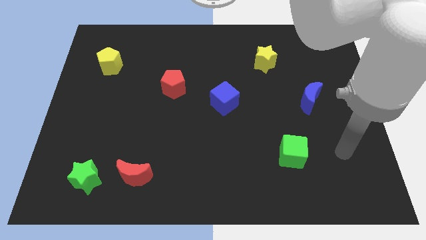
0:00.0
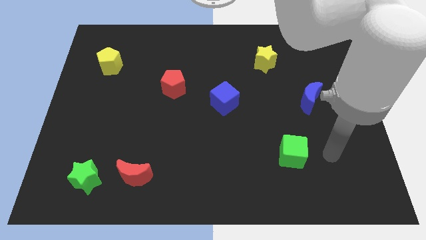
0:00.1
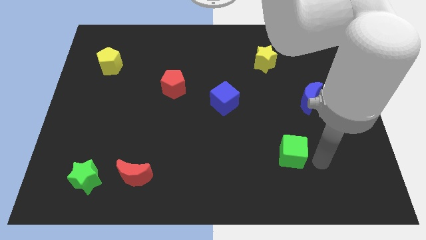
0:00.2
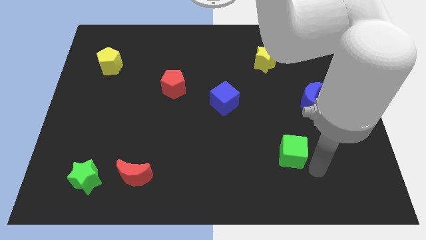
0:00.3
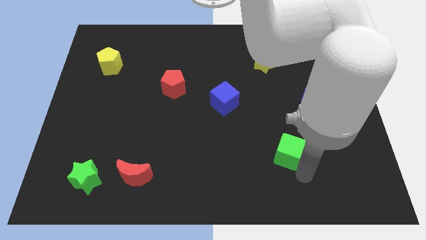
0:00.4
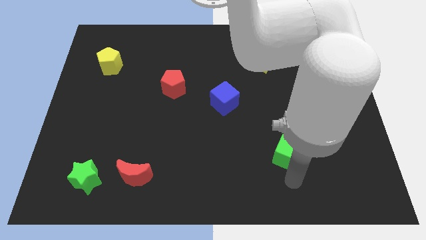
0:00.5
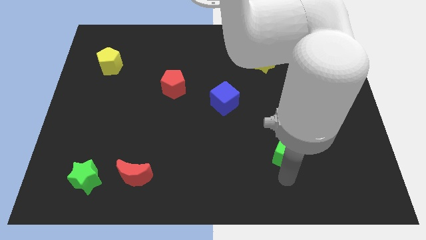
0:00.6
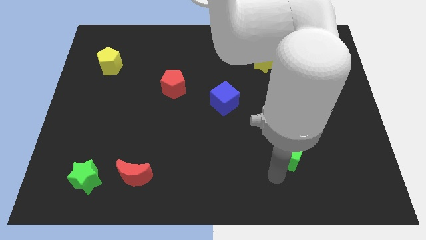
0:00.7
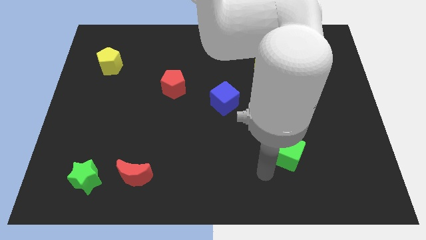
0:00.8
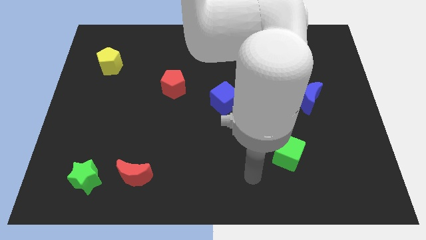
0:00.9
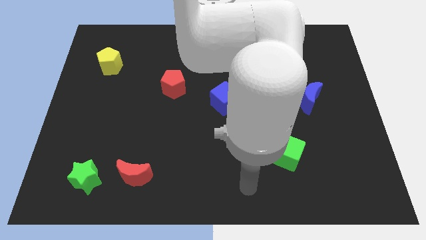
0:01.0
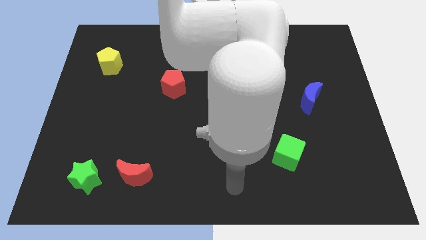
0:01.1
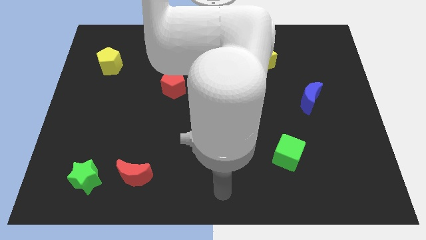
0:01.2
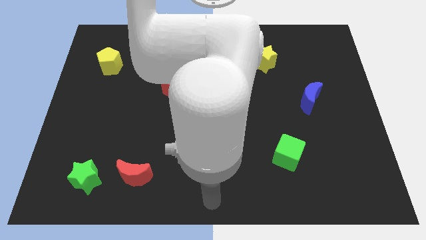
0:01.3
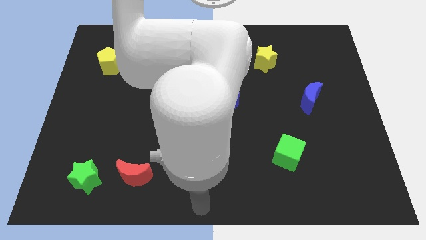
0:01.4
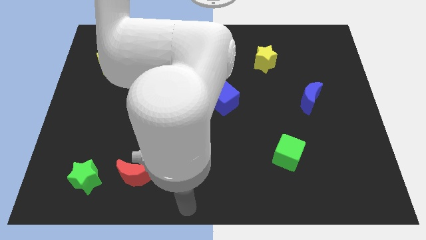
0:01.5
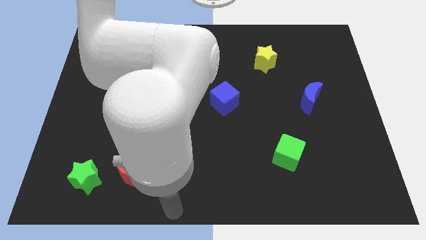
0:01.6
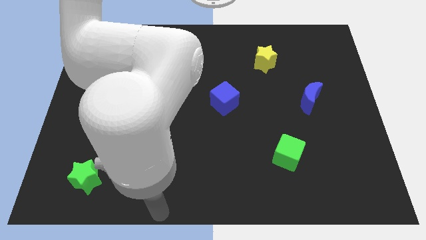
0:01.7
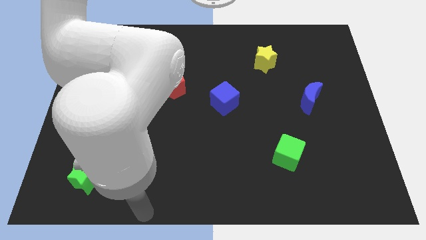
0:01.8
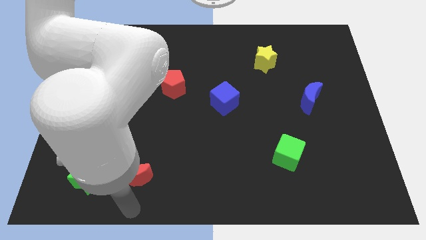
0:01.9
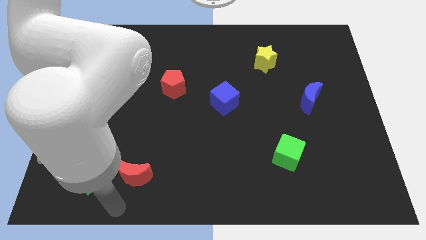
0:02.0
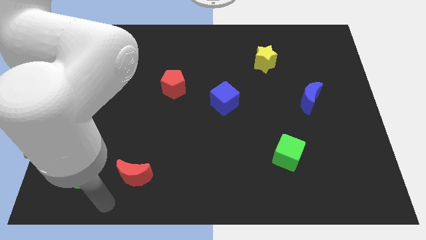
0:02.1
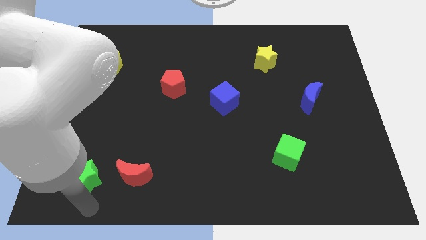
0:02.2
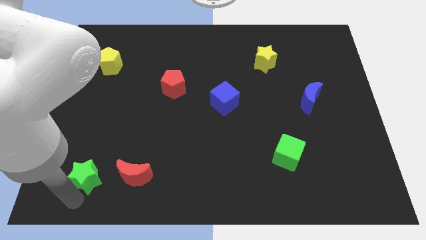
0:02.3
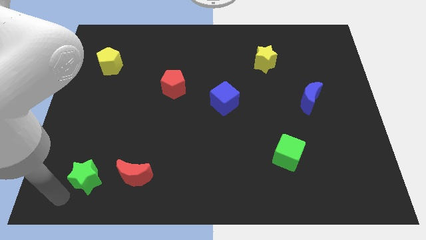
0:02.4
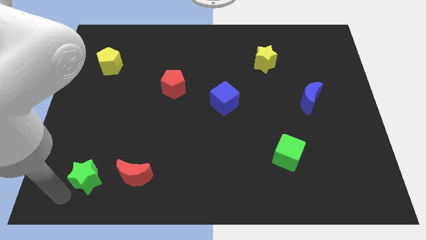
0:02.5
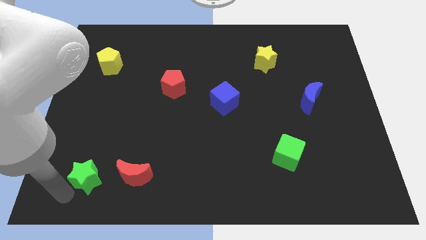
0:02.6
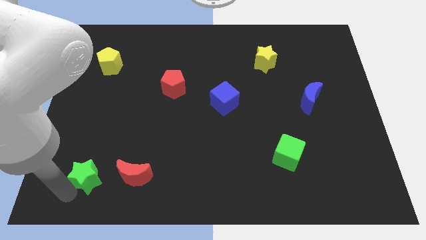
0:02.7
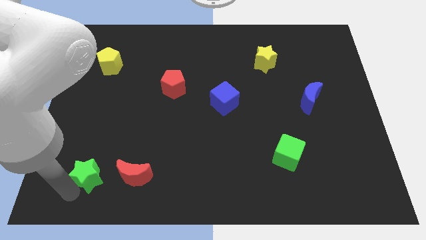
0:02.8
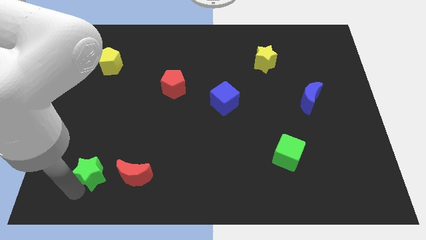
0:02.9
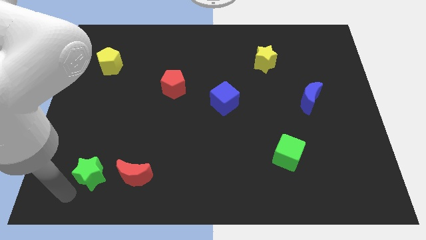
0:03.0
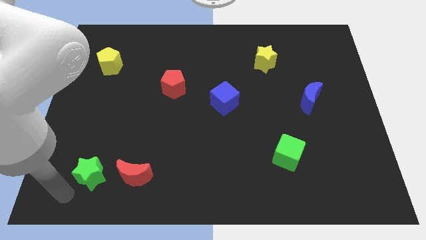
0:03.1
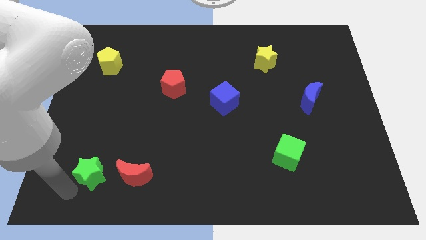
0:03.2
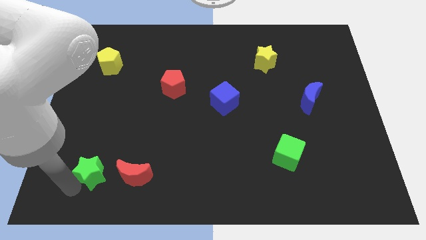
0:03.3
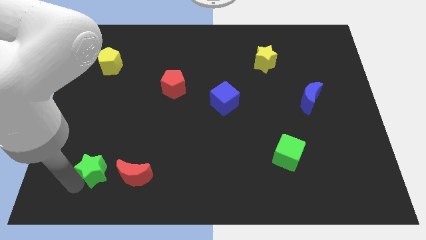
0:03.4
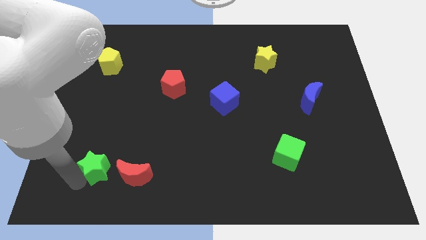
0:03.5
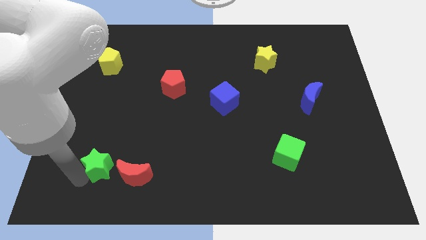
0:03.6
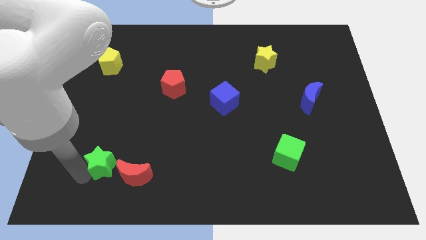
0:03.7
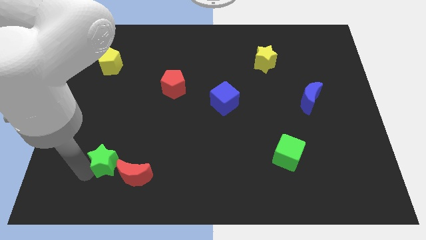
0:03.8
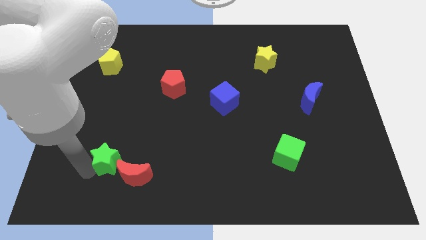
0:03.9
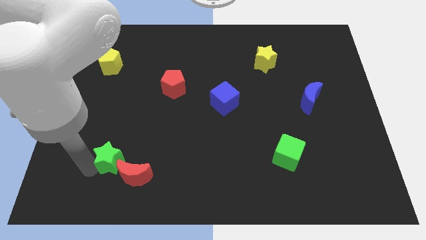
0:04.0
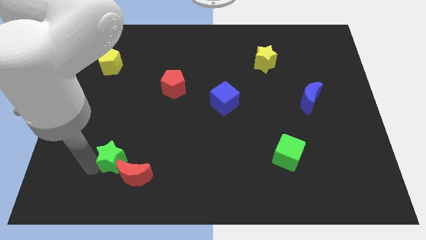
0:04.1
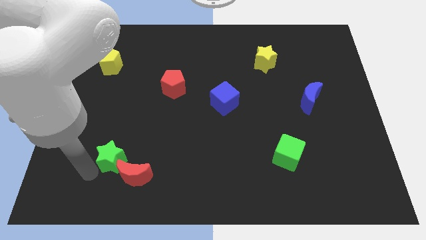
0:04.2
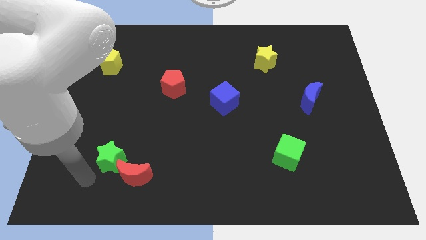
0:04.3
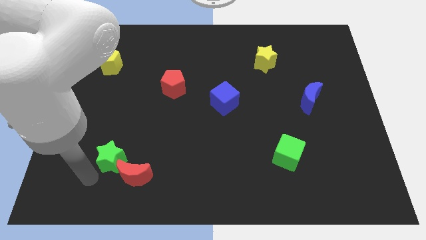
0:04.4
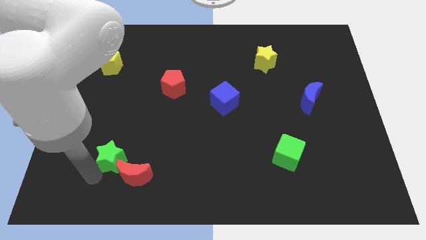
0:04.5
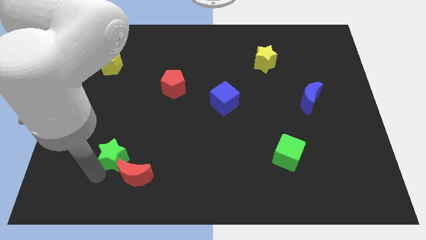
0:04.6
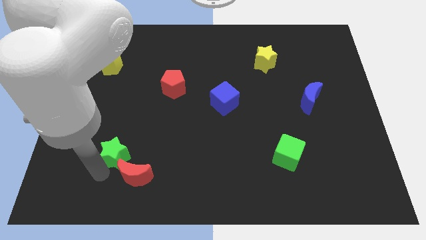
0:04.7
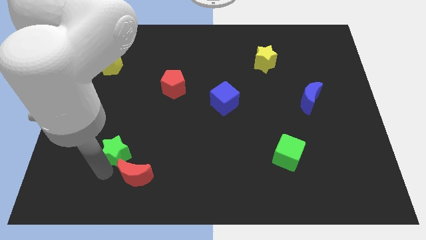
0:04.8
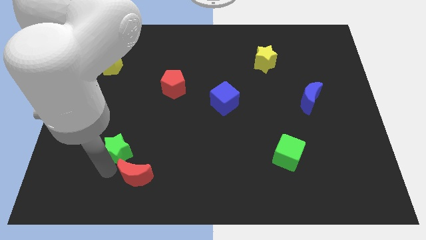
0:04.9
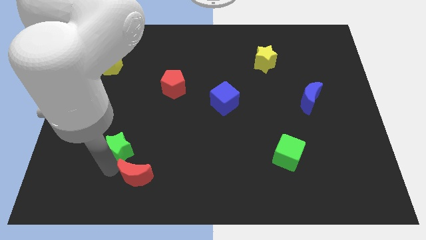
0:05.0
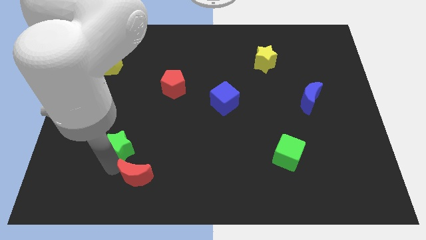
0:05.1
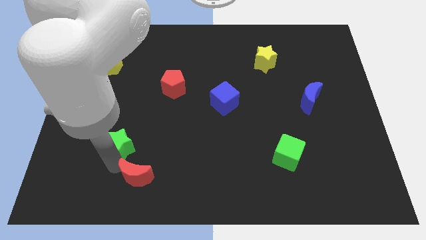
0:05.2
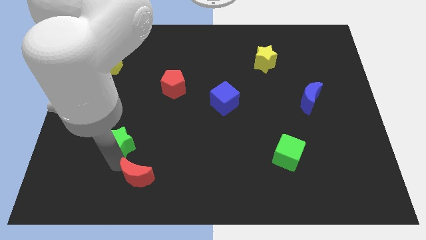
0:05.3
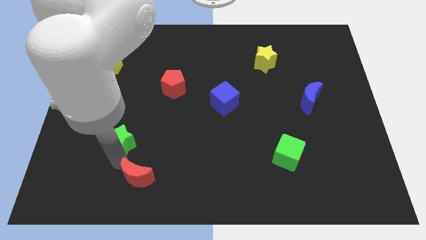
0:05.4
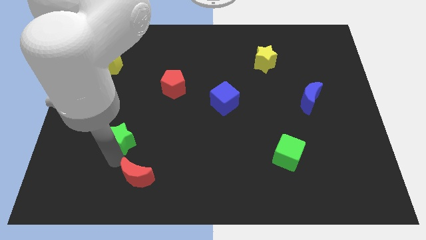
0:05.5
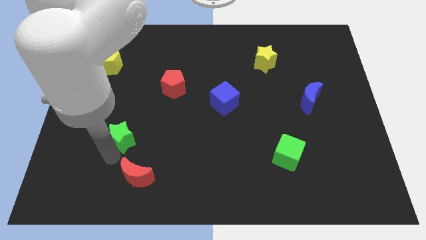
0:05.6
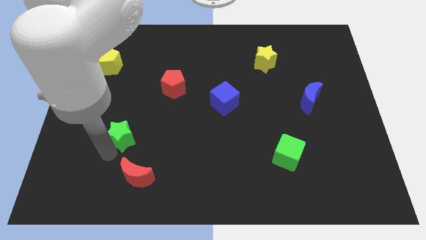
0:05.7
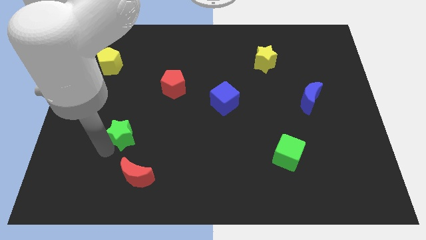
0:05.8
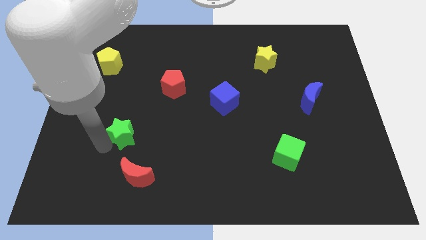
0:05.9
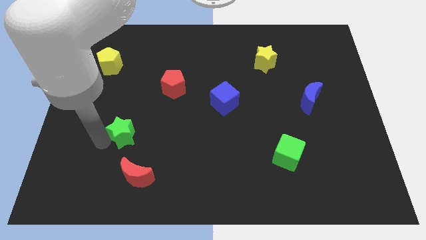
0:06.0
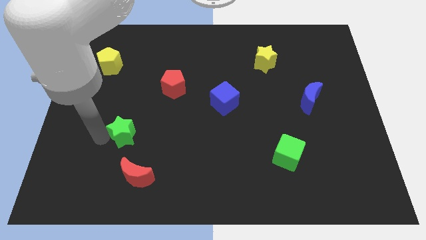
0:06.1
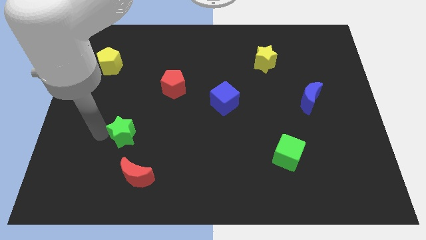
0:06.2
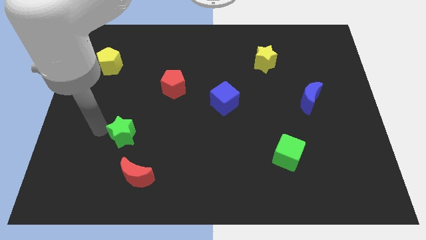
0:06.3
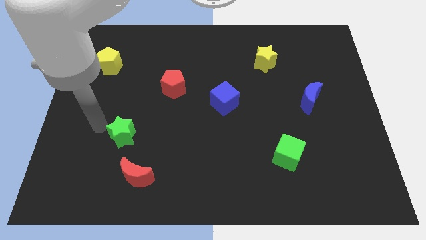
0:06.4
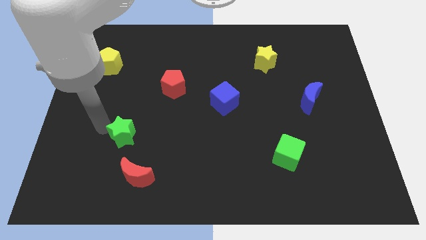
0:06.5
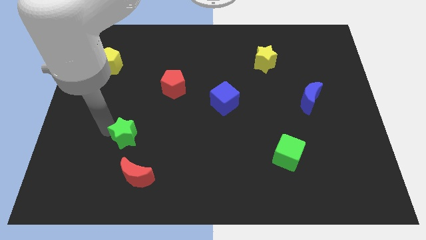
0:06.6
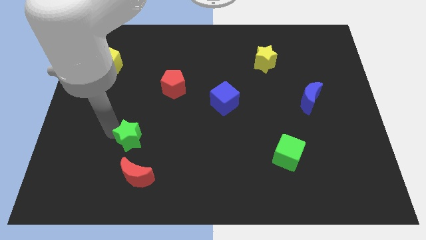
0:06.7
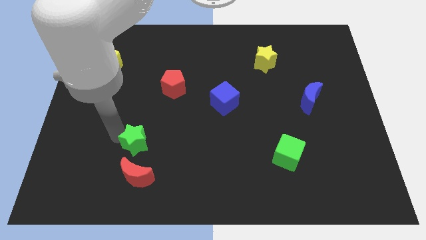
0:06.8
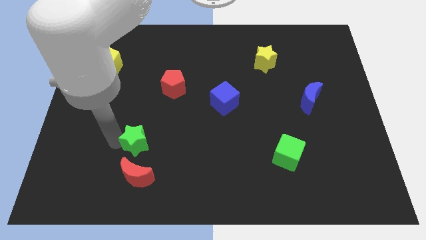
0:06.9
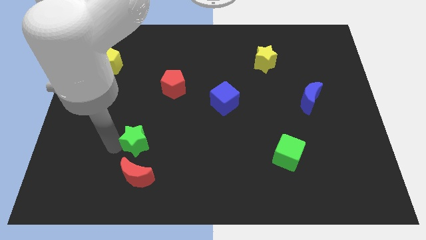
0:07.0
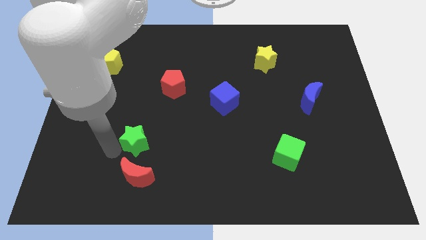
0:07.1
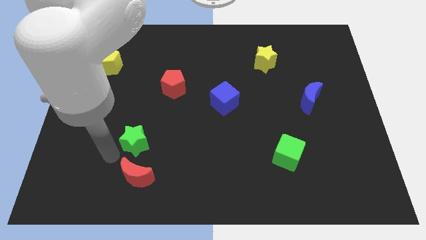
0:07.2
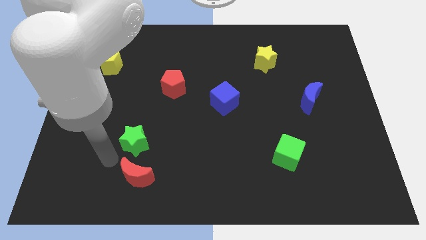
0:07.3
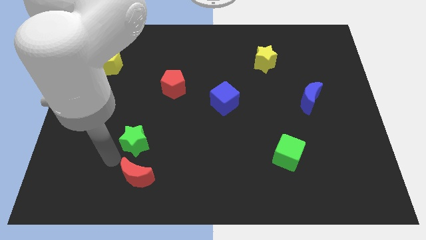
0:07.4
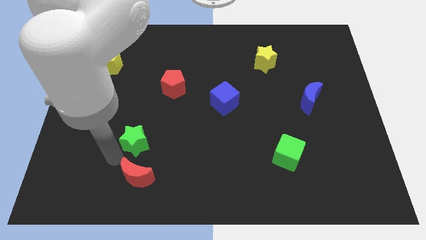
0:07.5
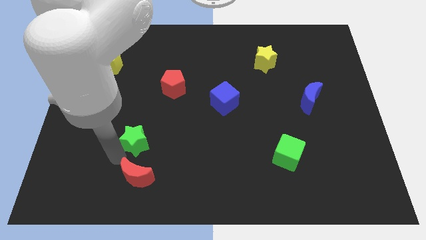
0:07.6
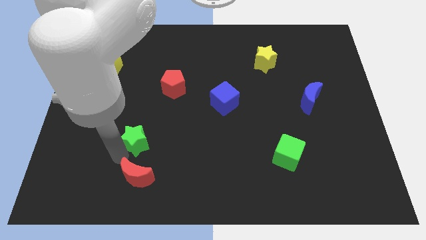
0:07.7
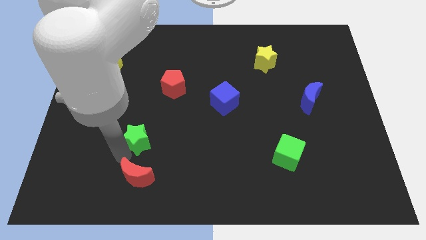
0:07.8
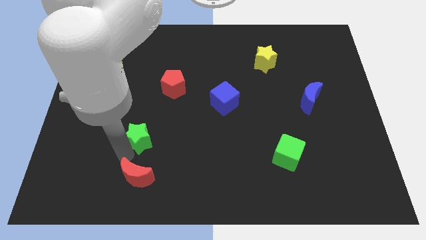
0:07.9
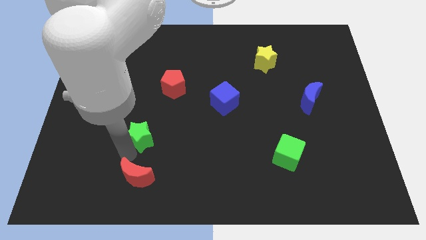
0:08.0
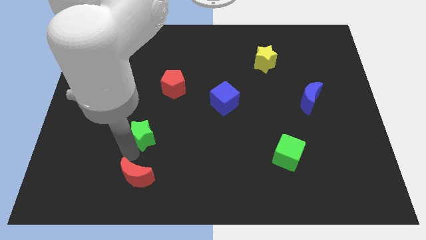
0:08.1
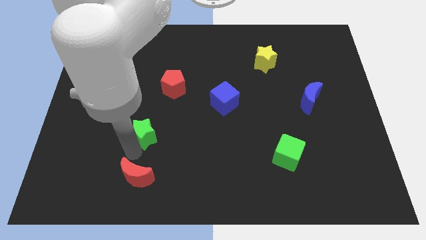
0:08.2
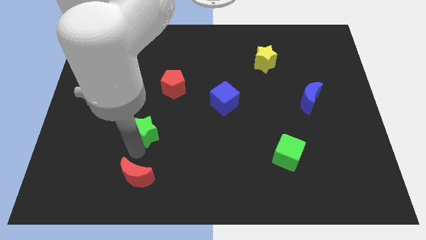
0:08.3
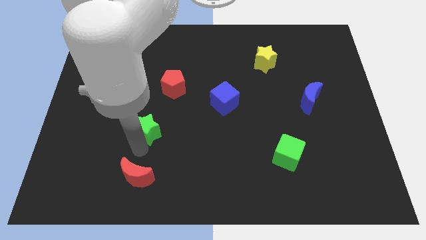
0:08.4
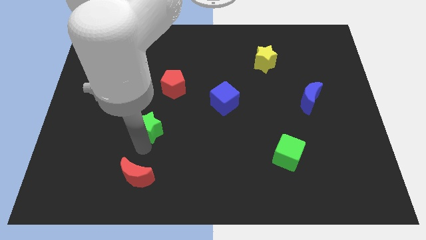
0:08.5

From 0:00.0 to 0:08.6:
move the green star to the bottom side of the red pentagon
